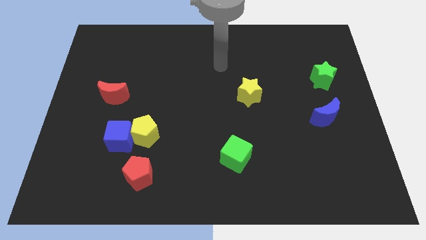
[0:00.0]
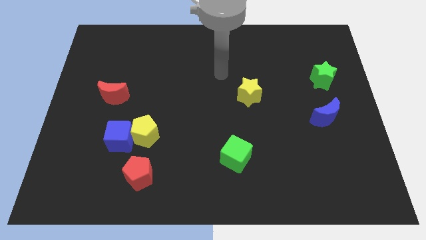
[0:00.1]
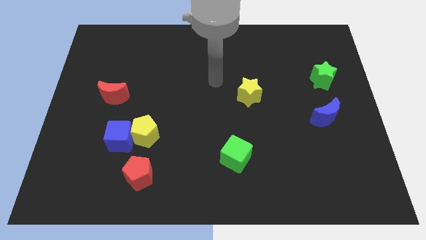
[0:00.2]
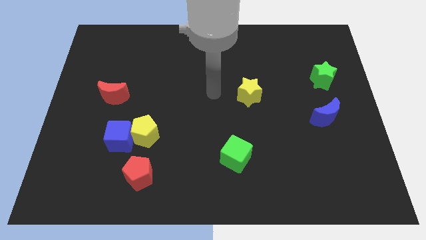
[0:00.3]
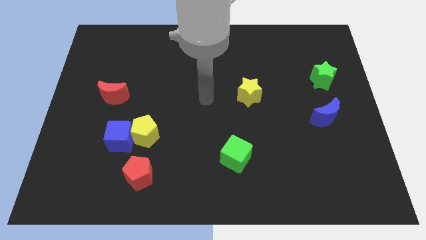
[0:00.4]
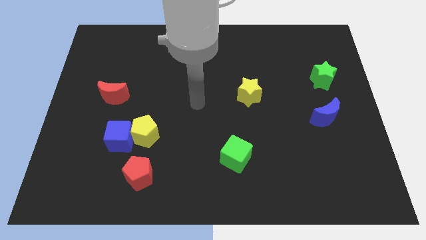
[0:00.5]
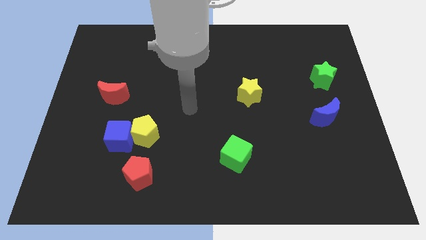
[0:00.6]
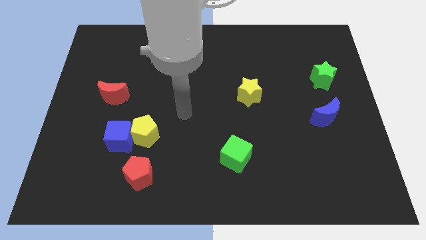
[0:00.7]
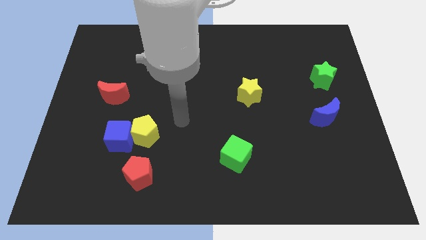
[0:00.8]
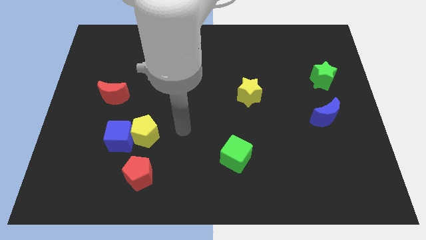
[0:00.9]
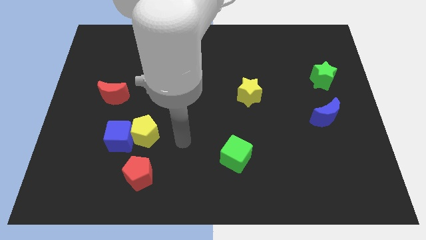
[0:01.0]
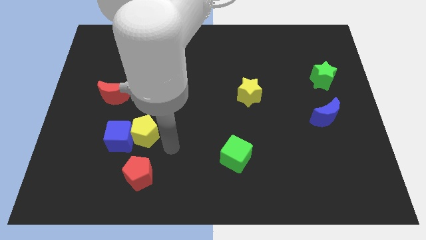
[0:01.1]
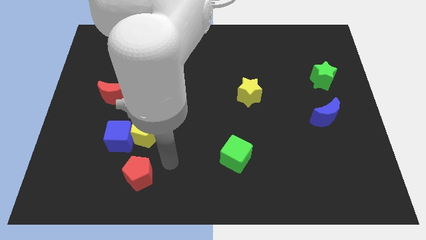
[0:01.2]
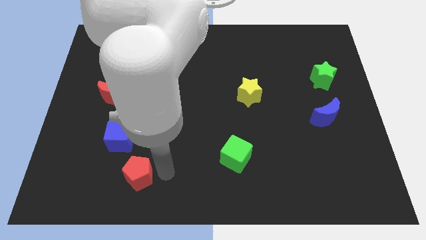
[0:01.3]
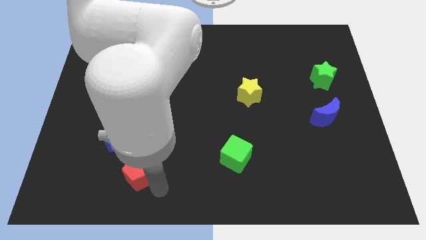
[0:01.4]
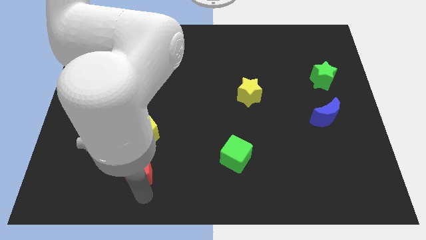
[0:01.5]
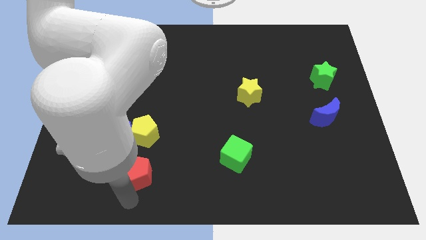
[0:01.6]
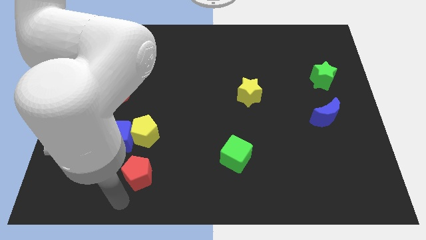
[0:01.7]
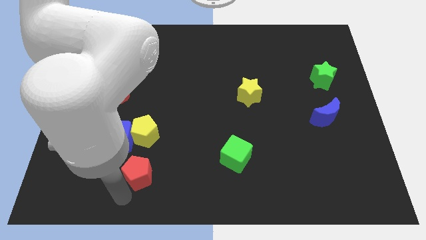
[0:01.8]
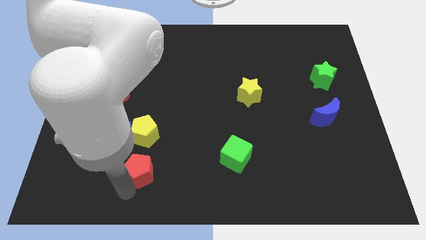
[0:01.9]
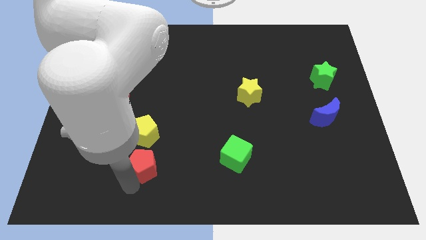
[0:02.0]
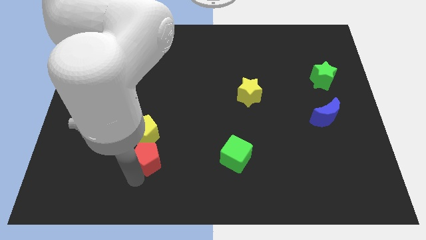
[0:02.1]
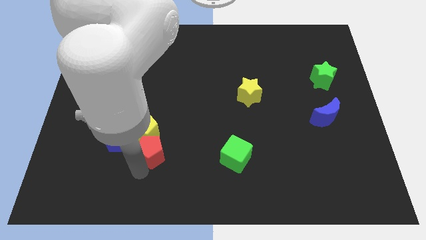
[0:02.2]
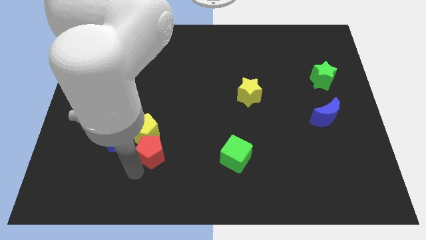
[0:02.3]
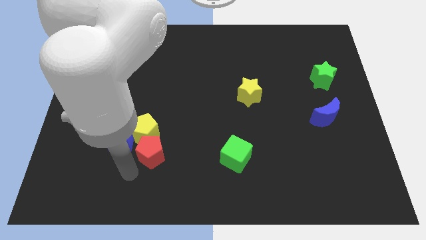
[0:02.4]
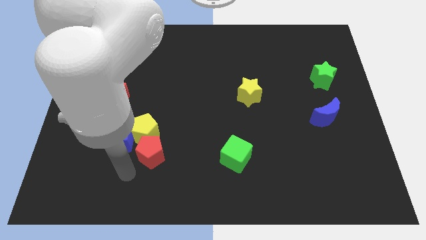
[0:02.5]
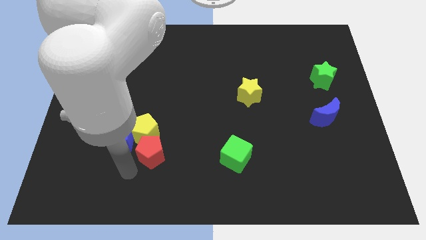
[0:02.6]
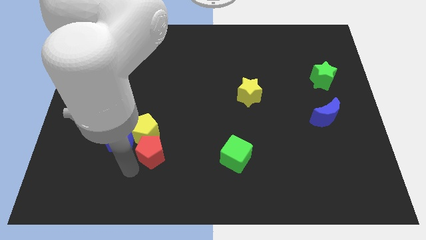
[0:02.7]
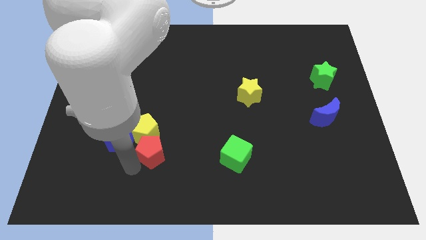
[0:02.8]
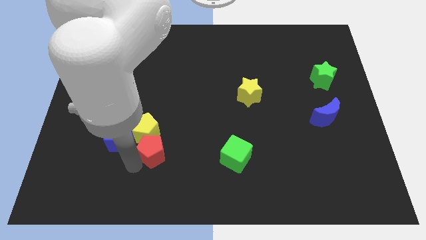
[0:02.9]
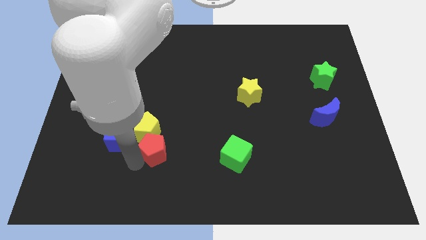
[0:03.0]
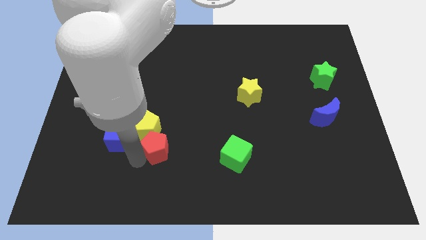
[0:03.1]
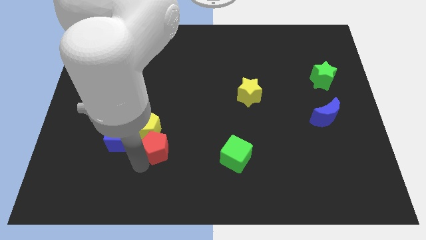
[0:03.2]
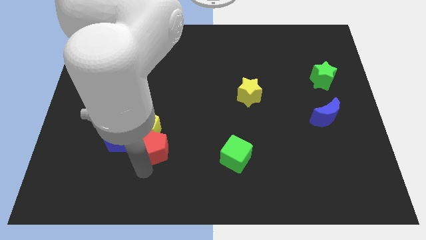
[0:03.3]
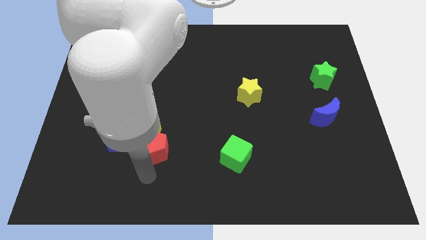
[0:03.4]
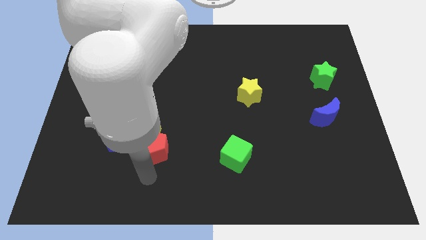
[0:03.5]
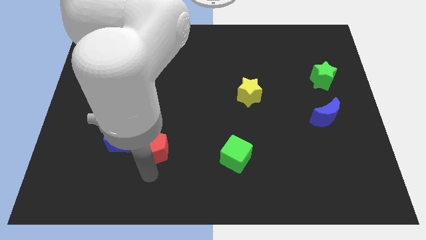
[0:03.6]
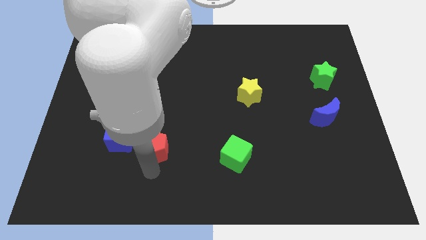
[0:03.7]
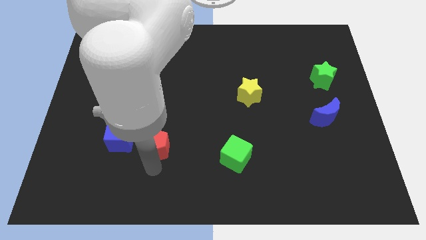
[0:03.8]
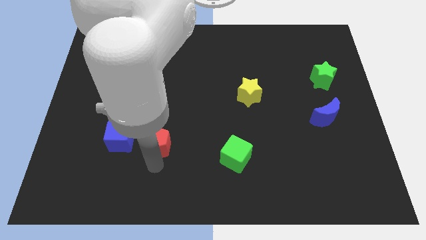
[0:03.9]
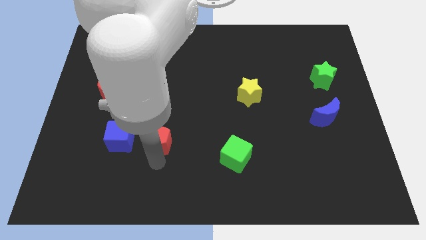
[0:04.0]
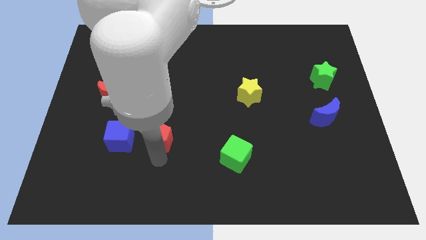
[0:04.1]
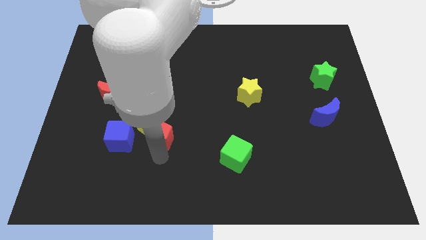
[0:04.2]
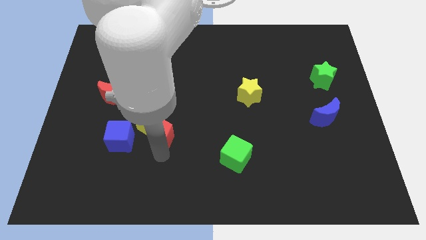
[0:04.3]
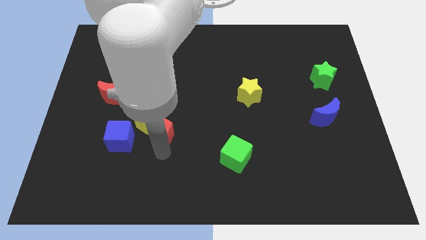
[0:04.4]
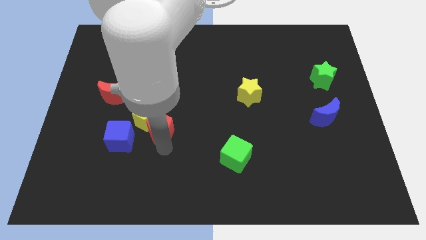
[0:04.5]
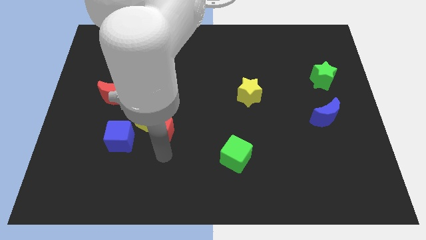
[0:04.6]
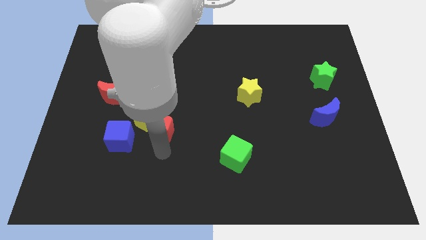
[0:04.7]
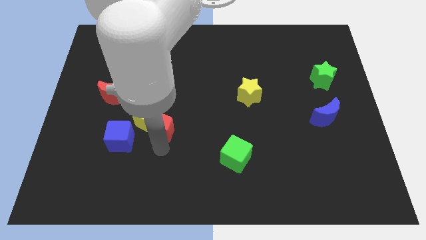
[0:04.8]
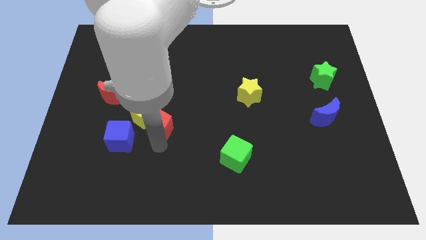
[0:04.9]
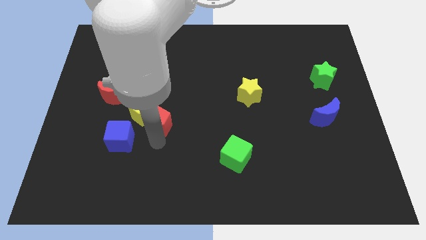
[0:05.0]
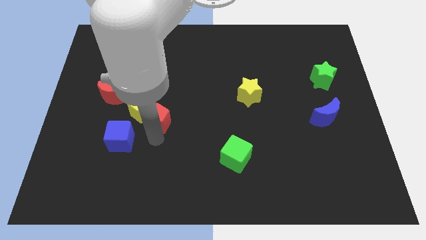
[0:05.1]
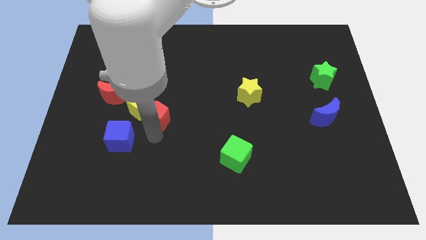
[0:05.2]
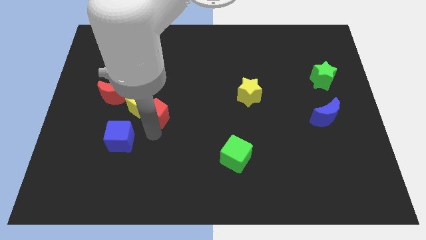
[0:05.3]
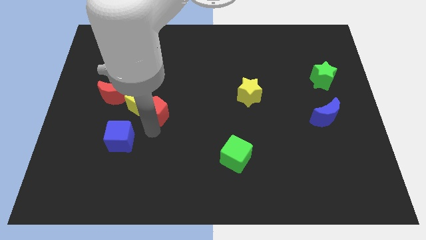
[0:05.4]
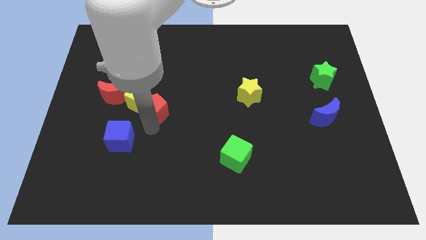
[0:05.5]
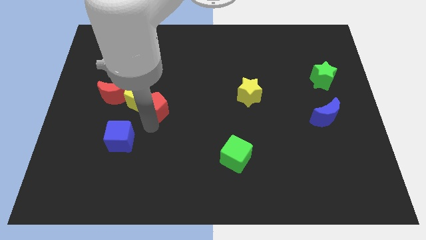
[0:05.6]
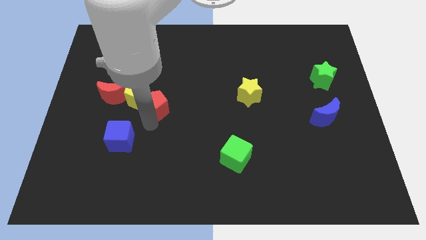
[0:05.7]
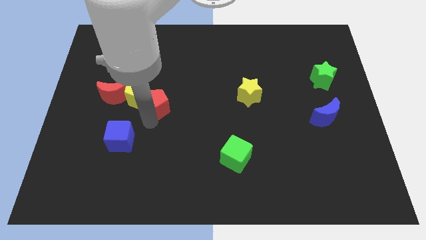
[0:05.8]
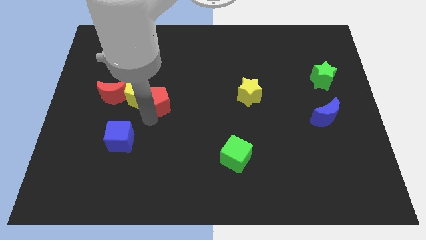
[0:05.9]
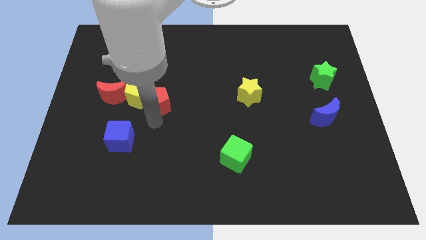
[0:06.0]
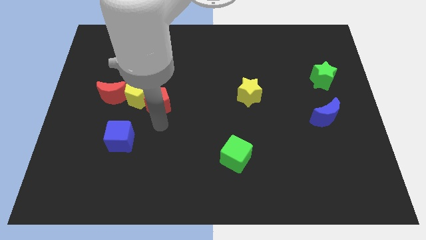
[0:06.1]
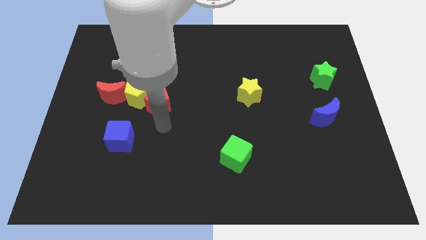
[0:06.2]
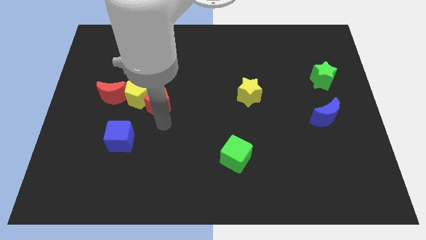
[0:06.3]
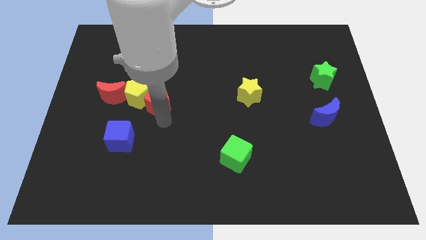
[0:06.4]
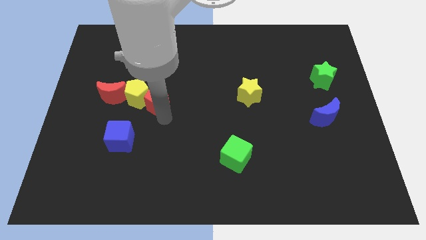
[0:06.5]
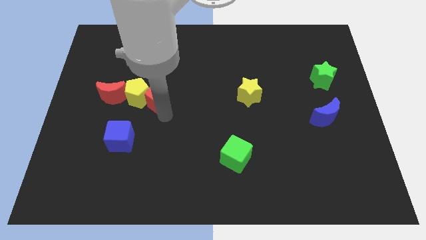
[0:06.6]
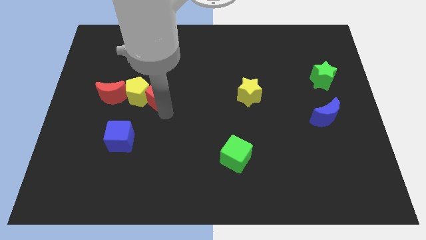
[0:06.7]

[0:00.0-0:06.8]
move the red pentagon up

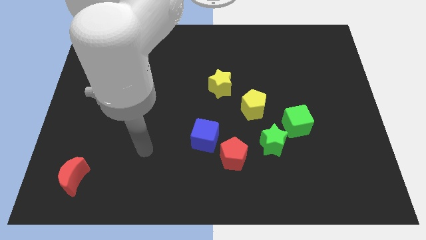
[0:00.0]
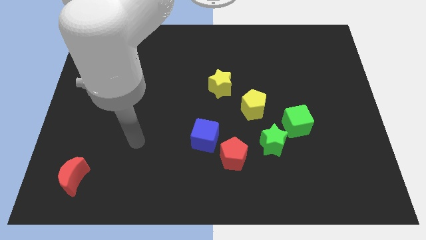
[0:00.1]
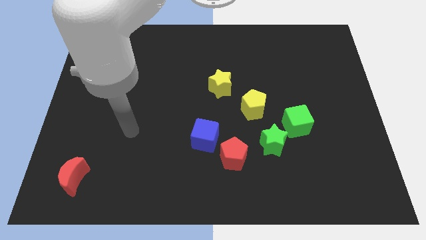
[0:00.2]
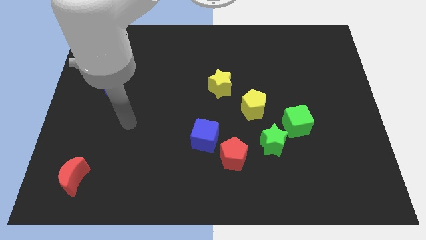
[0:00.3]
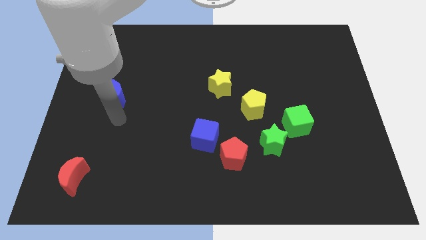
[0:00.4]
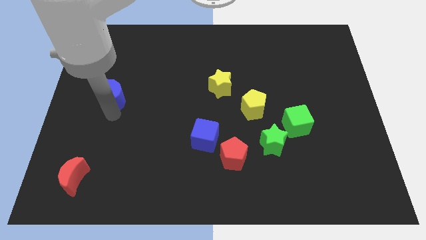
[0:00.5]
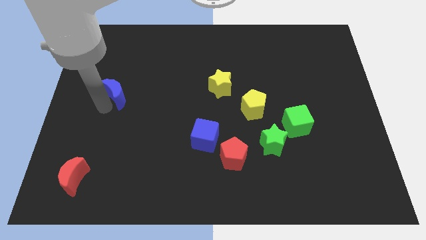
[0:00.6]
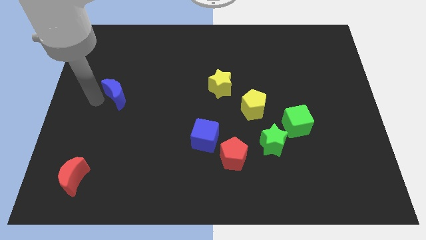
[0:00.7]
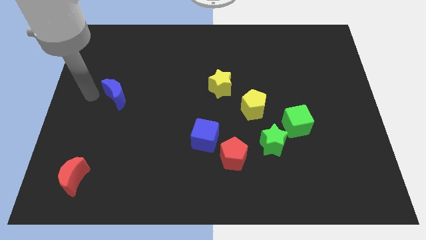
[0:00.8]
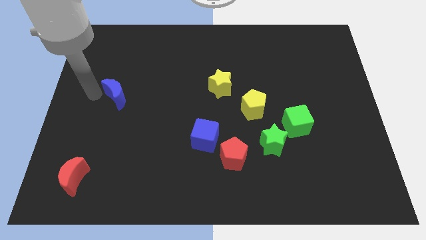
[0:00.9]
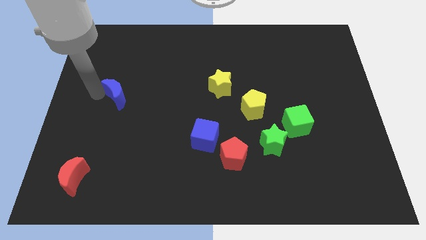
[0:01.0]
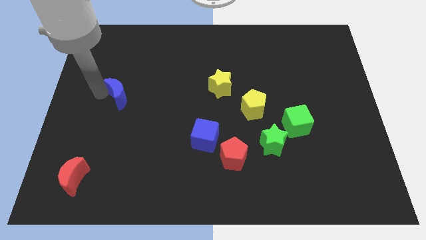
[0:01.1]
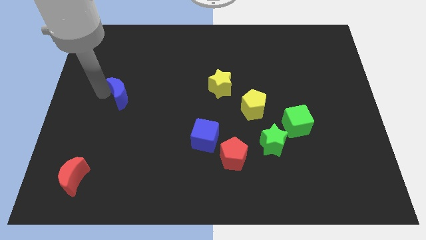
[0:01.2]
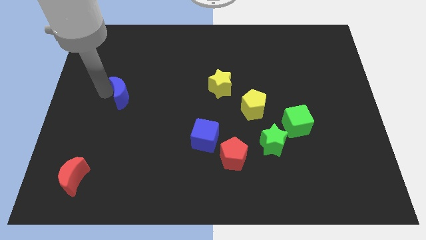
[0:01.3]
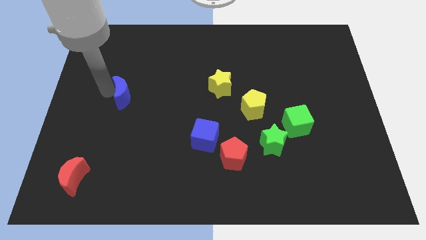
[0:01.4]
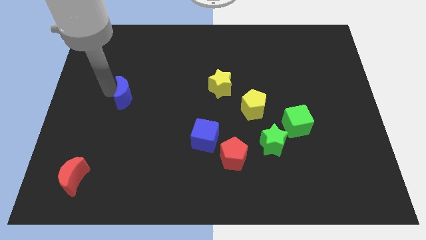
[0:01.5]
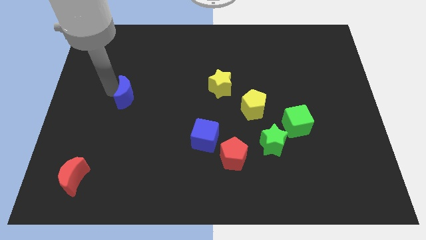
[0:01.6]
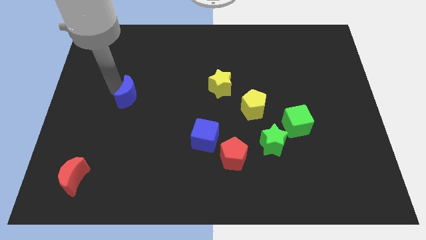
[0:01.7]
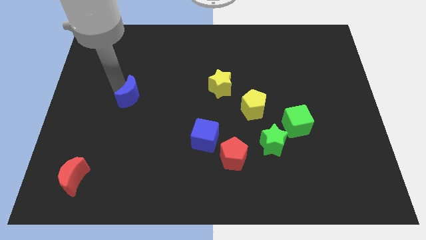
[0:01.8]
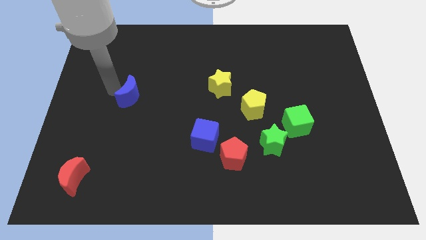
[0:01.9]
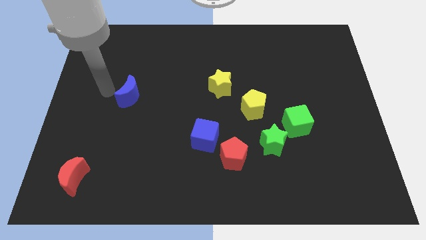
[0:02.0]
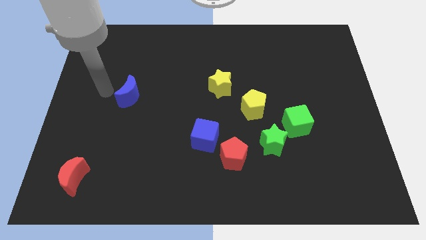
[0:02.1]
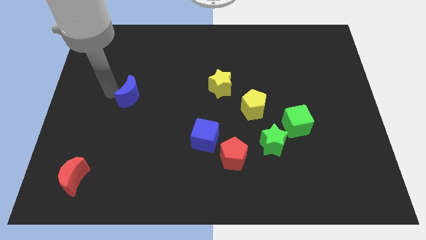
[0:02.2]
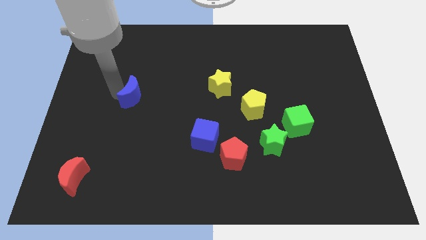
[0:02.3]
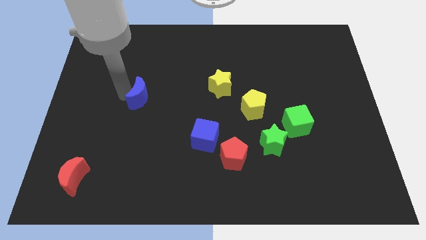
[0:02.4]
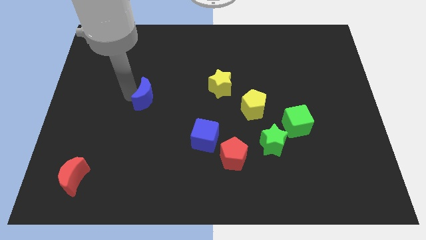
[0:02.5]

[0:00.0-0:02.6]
slide the blue moon to the right slightly
